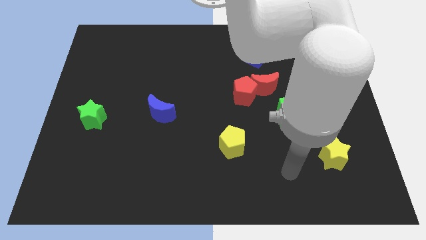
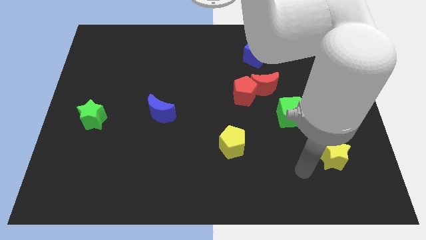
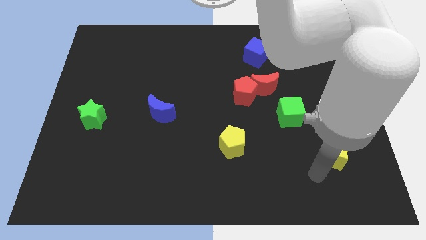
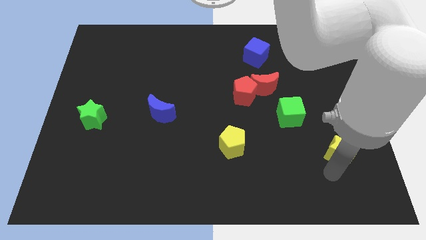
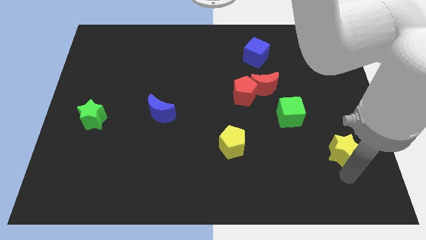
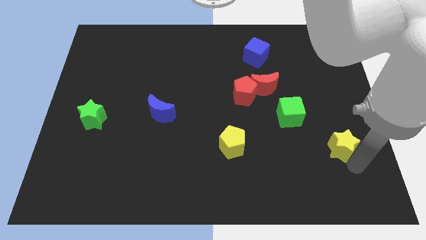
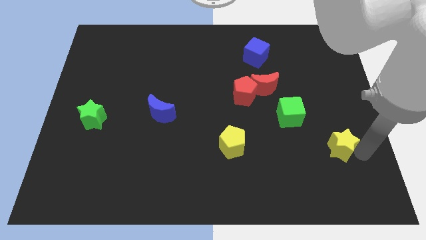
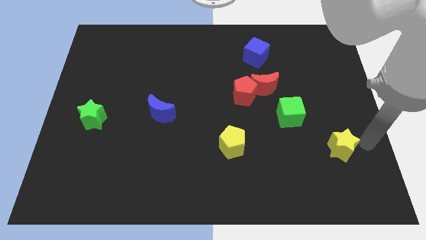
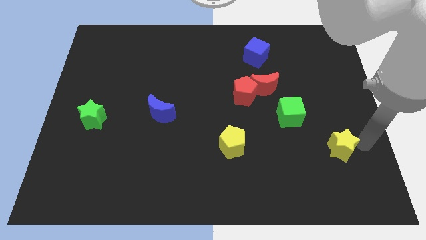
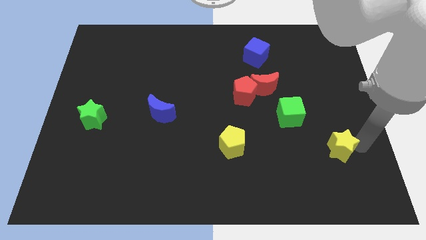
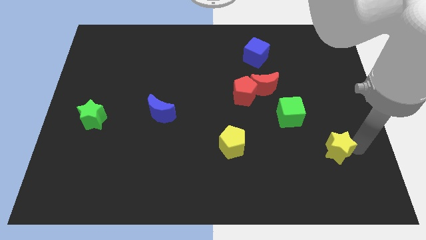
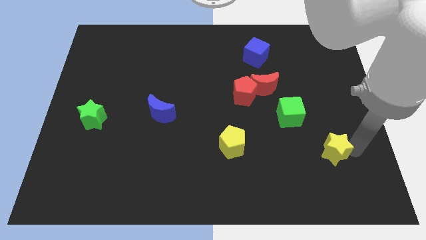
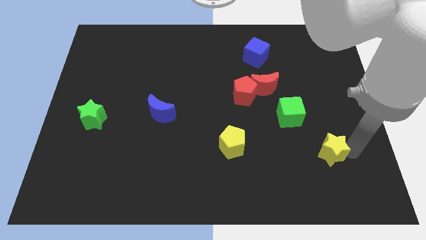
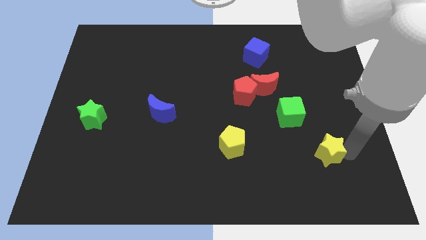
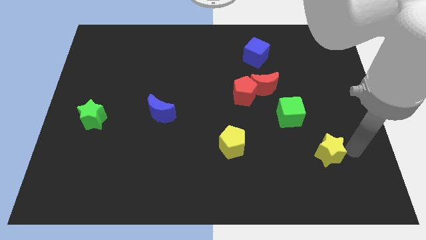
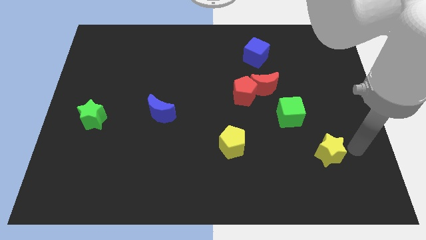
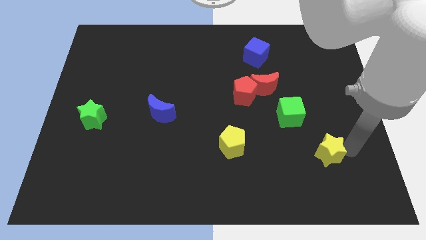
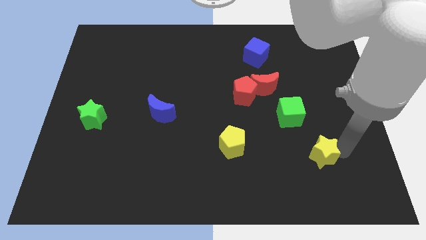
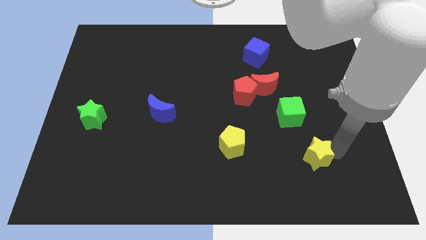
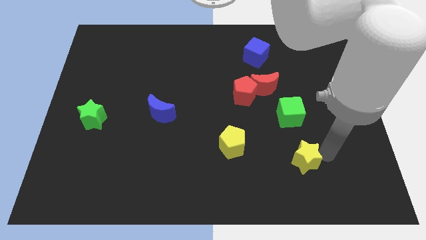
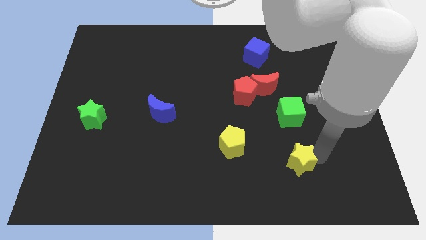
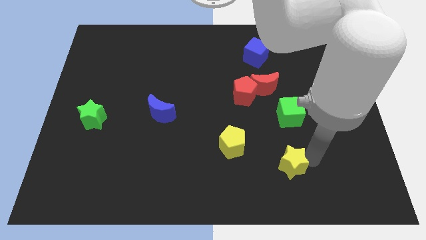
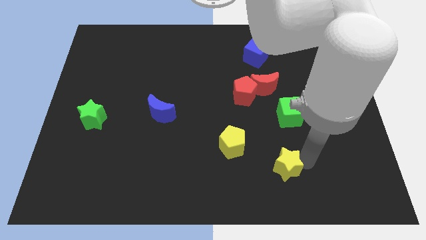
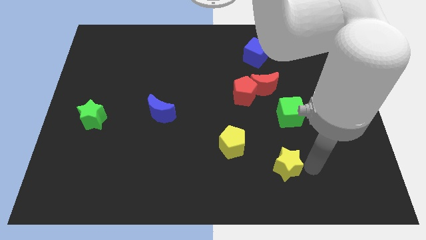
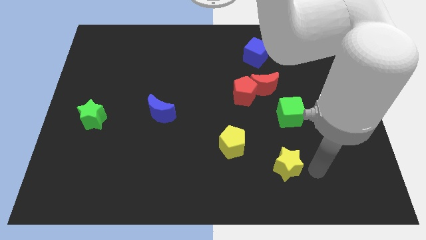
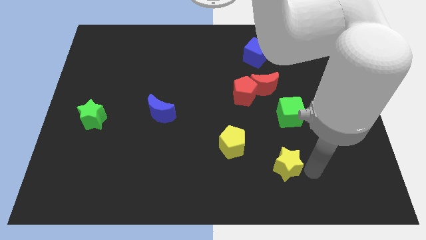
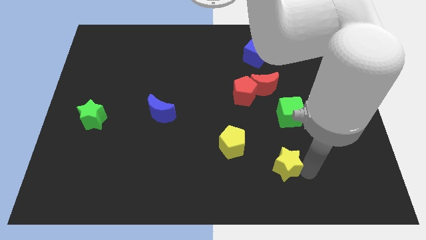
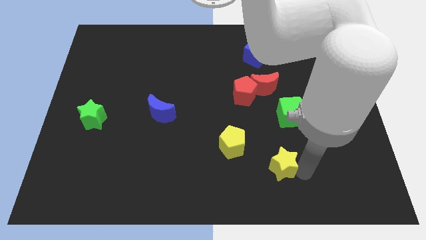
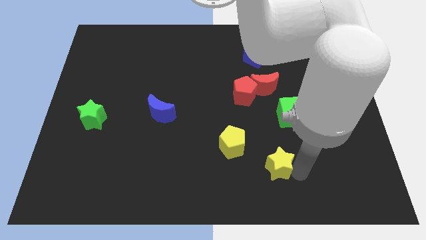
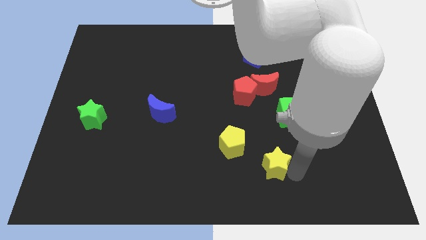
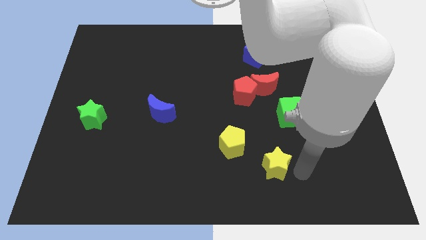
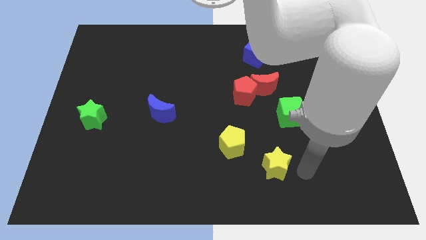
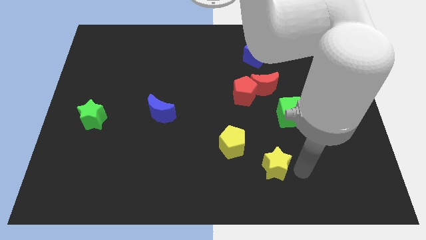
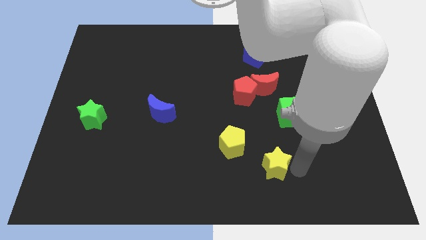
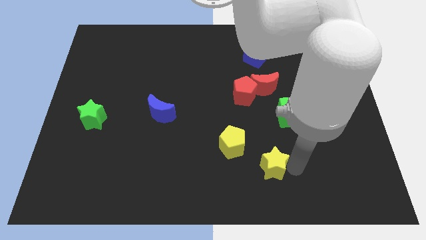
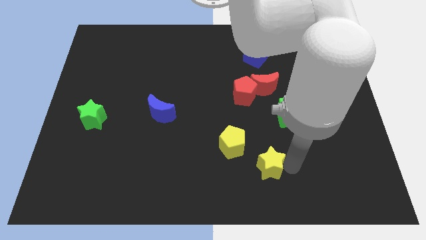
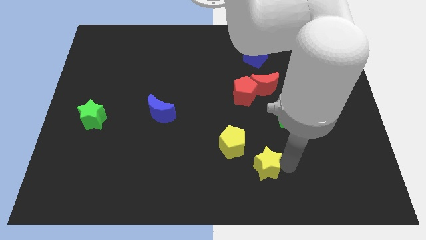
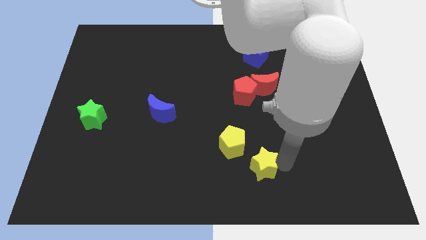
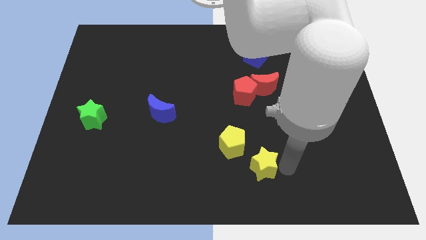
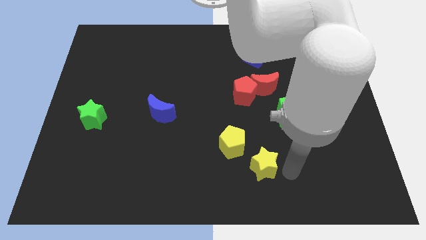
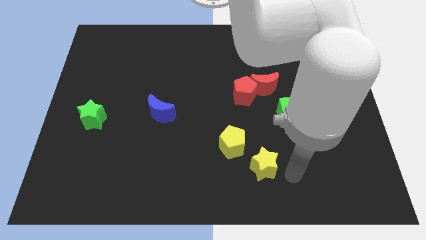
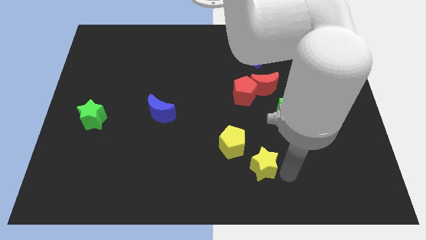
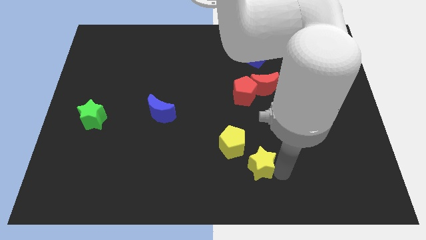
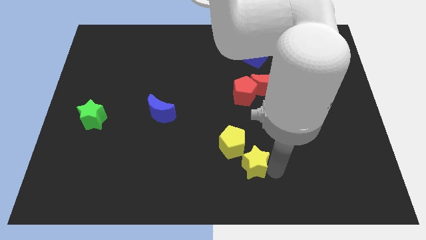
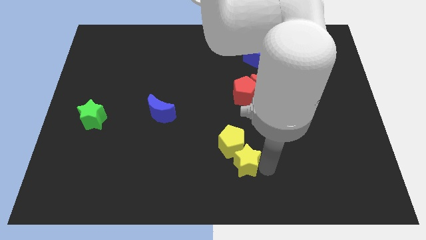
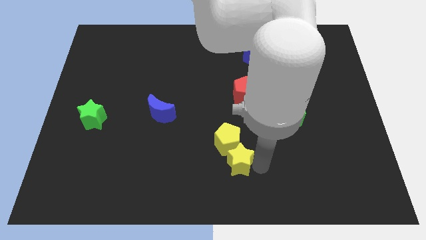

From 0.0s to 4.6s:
slide the yellow star left

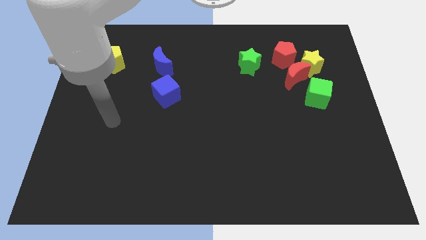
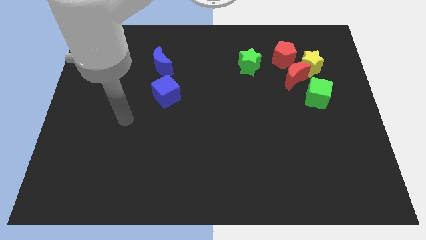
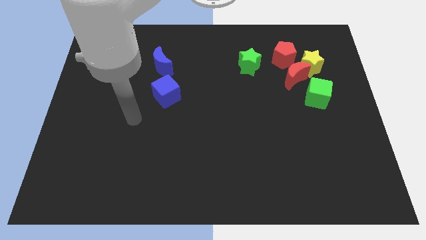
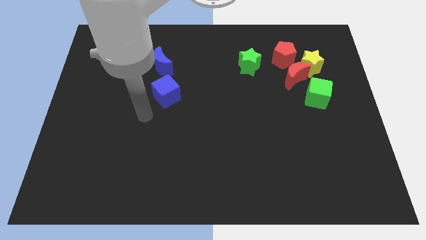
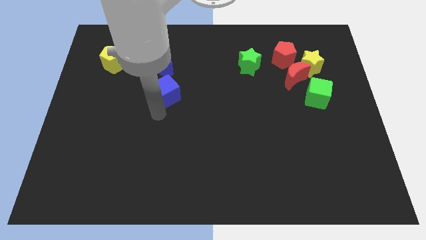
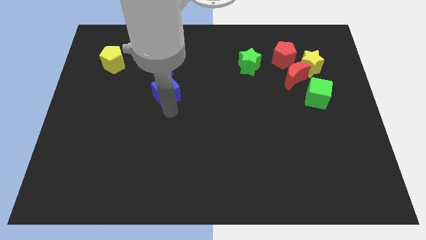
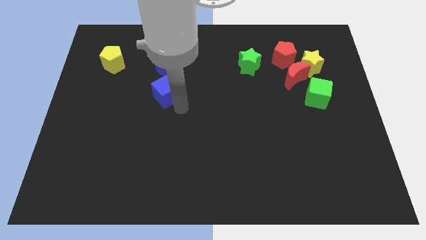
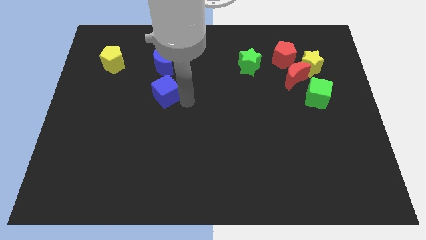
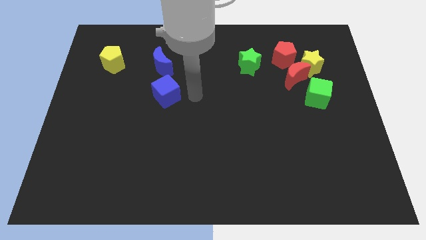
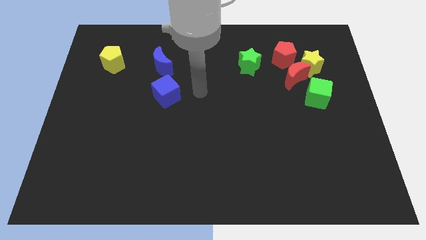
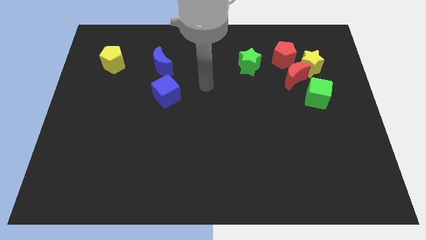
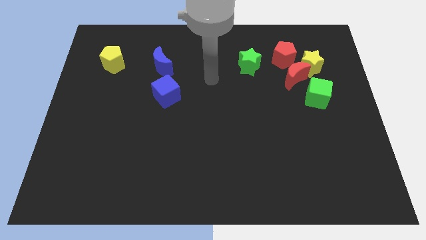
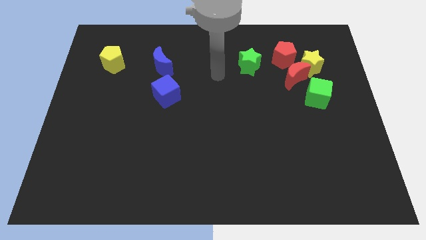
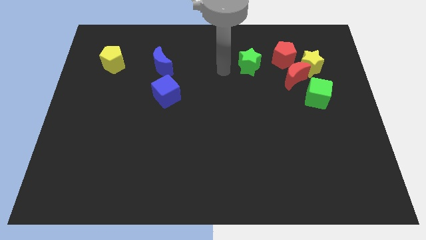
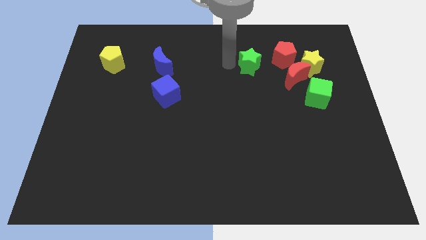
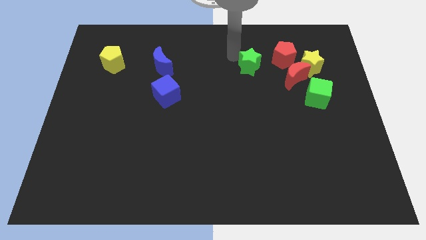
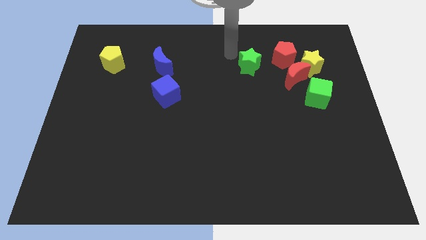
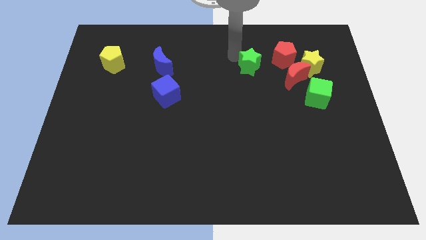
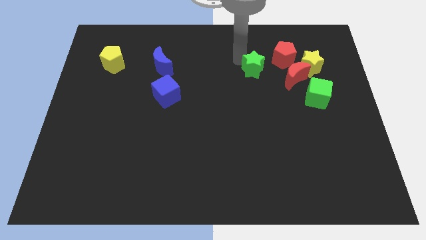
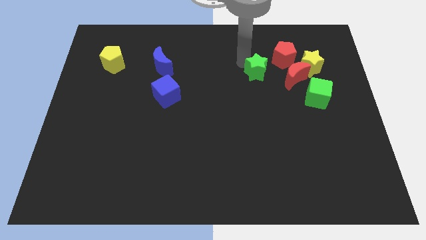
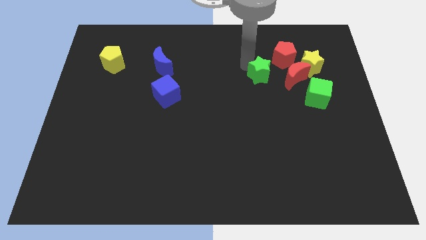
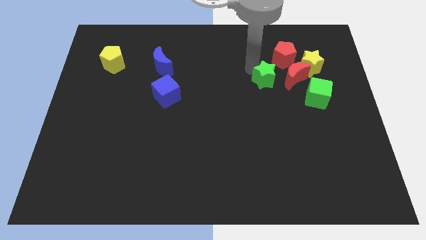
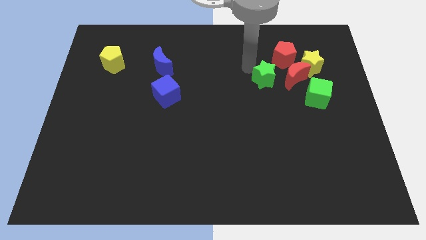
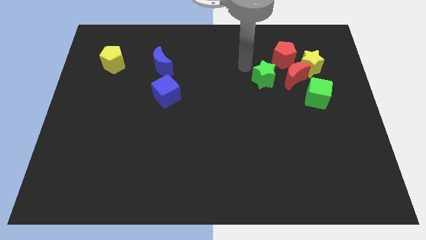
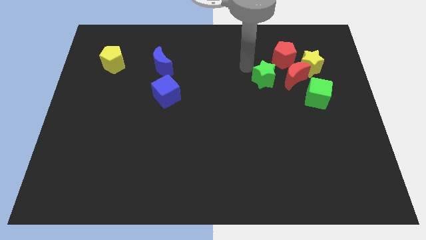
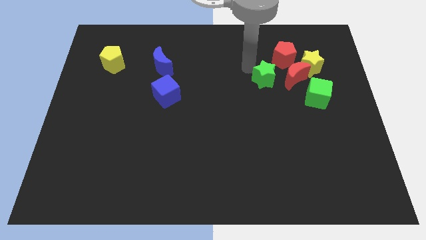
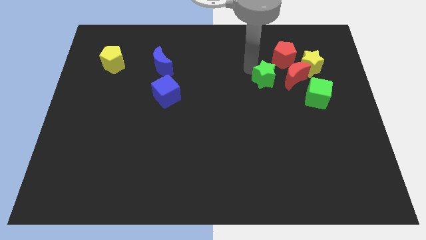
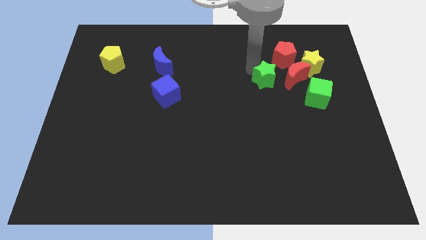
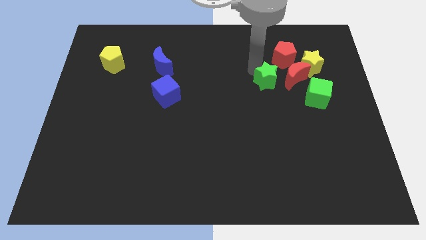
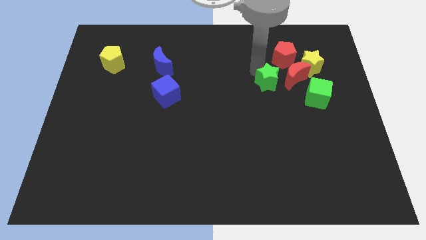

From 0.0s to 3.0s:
push the green star downwards and then right a little bit

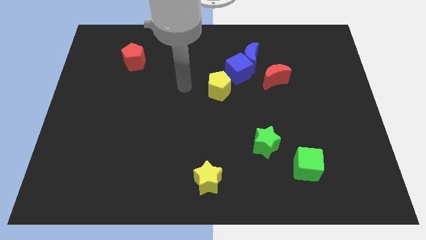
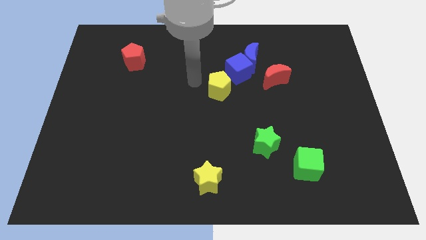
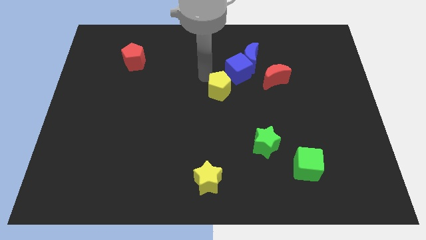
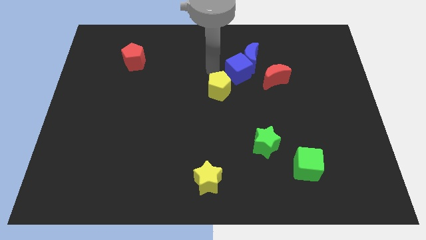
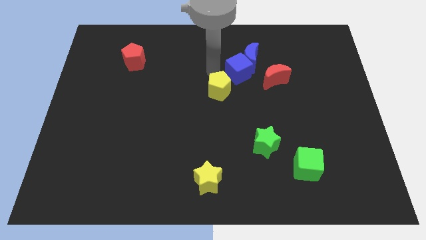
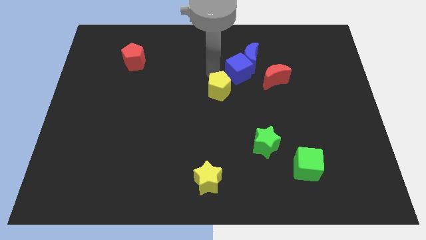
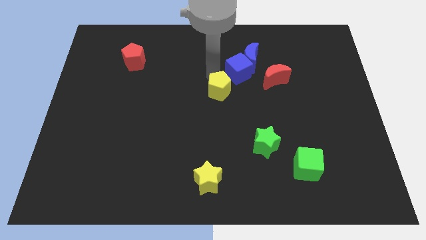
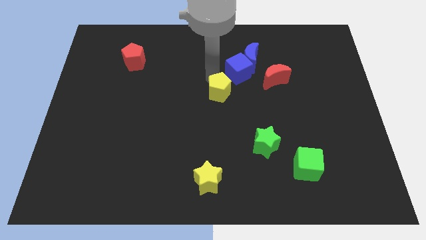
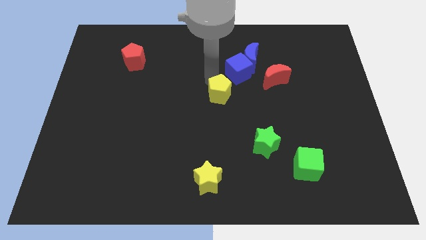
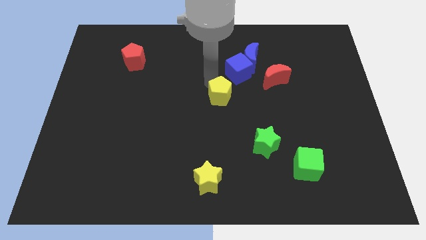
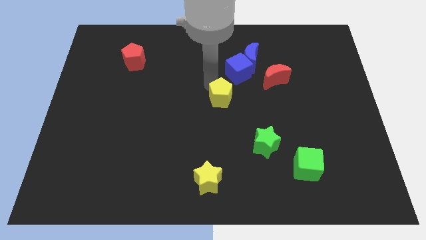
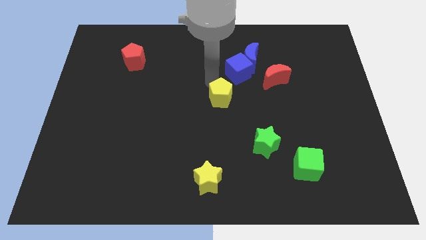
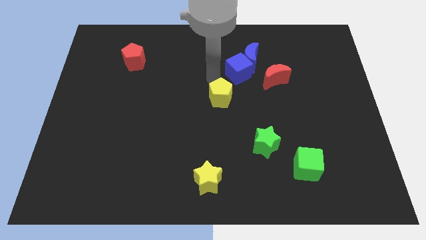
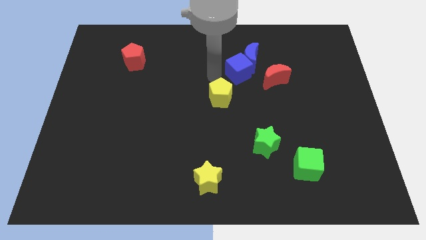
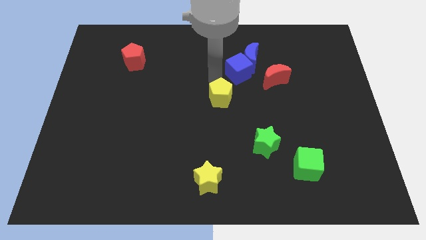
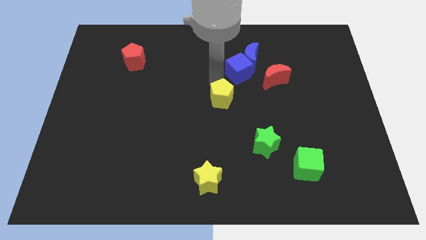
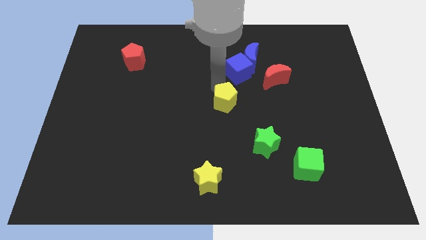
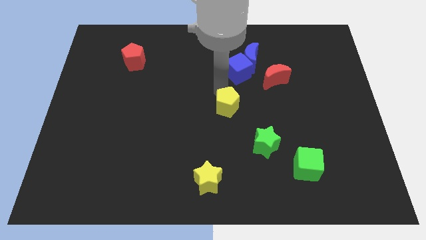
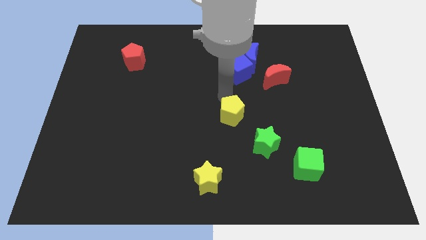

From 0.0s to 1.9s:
slightly slide the yellow pentagon down
